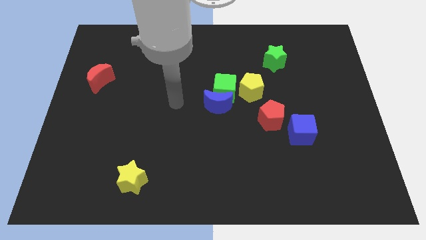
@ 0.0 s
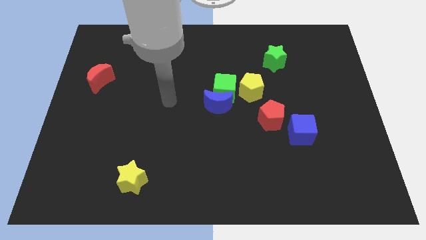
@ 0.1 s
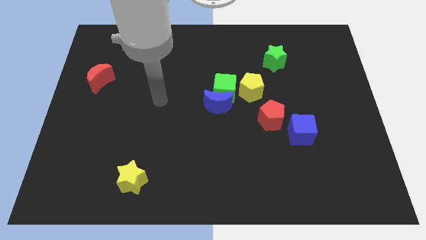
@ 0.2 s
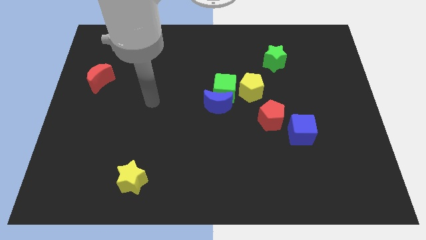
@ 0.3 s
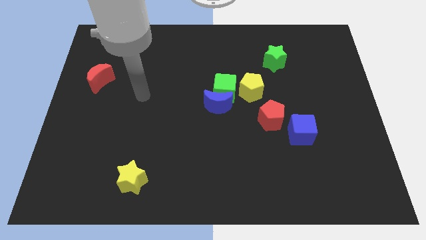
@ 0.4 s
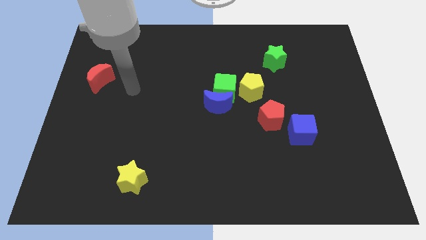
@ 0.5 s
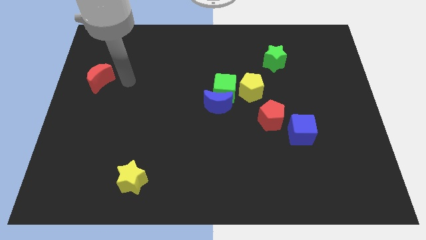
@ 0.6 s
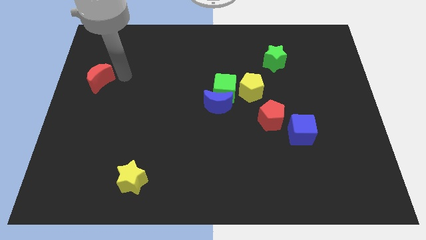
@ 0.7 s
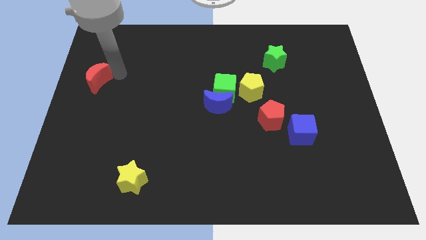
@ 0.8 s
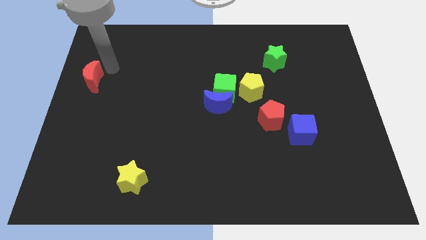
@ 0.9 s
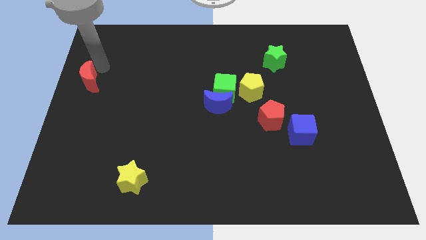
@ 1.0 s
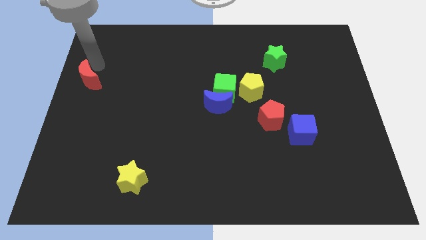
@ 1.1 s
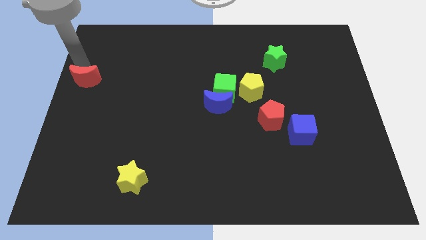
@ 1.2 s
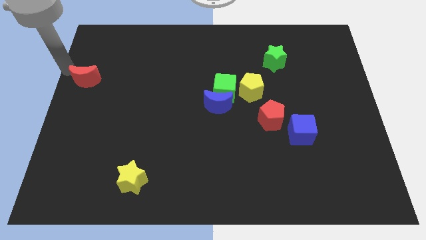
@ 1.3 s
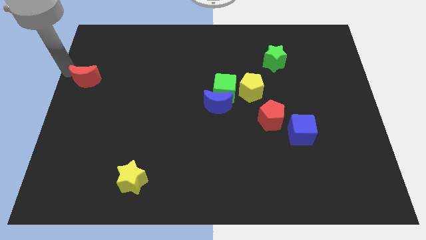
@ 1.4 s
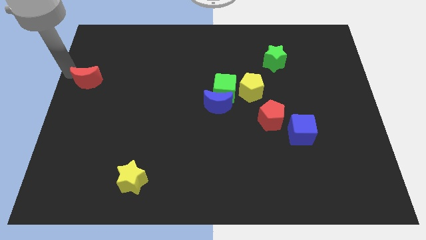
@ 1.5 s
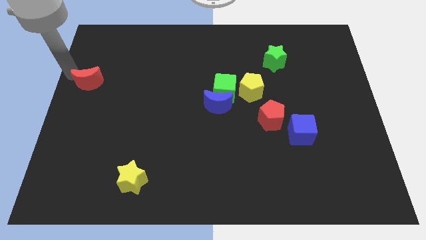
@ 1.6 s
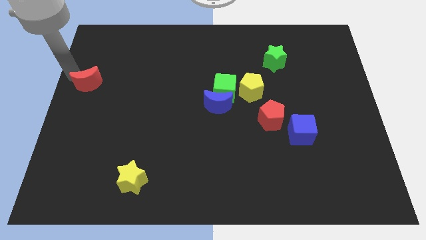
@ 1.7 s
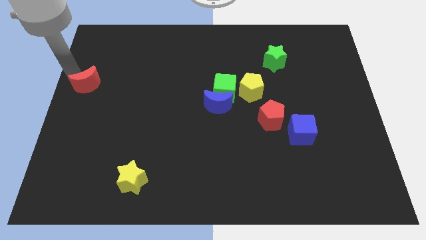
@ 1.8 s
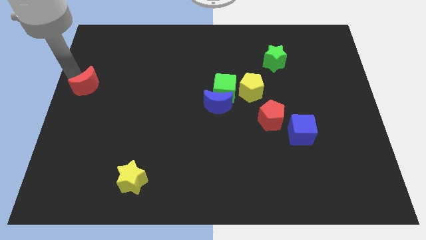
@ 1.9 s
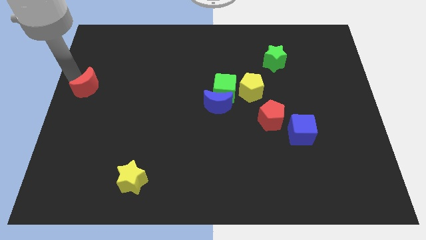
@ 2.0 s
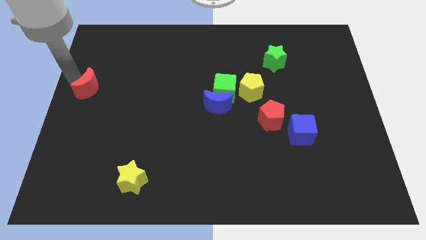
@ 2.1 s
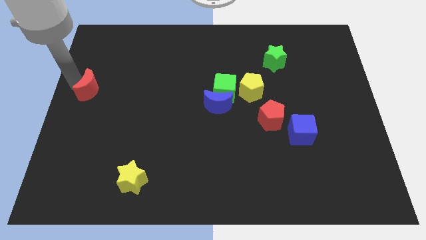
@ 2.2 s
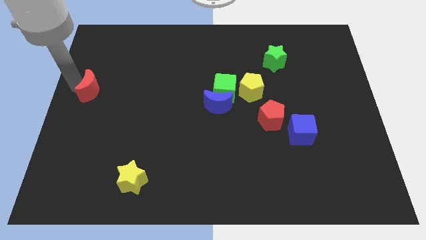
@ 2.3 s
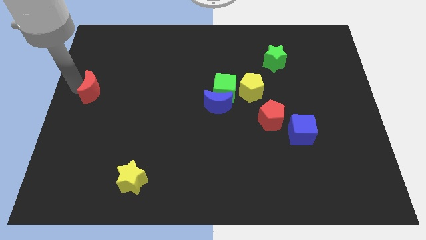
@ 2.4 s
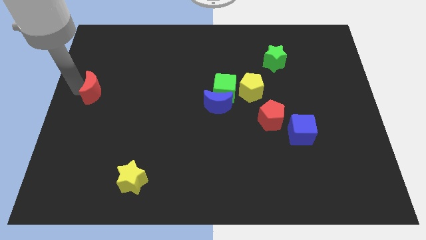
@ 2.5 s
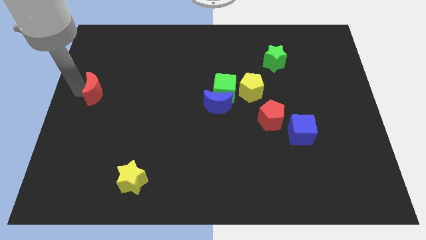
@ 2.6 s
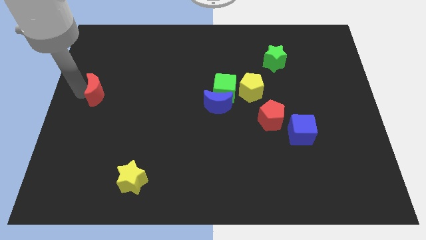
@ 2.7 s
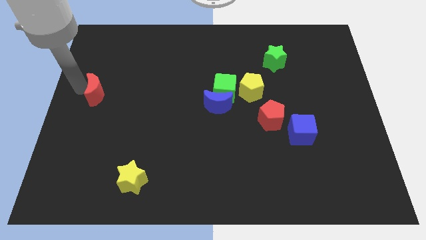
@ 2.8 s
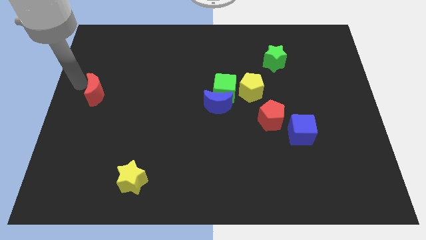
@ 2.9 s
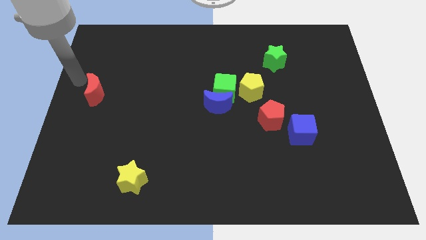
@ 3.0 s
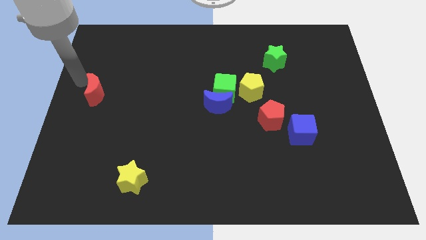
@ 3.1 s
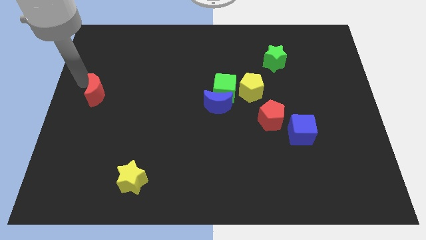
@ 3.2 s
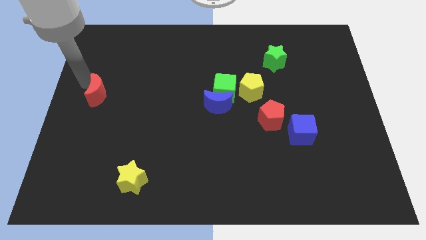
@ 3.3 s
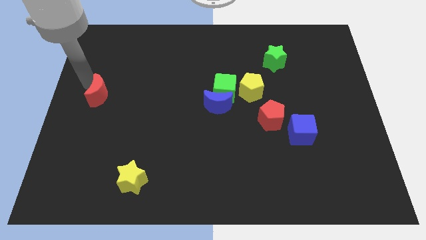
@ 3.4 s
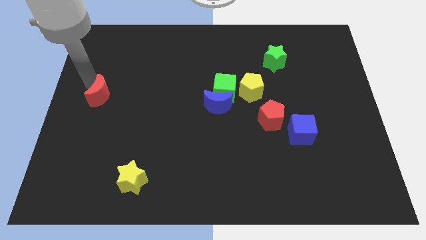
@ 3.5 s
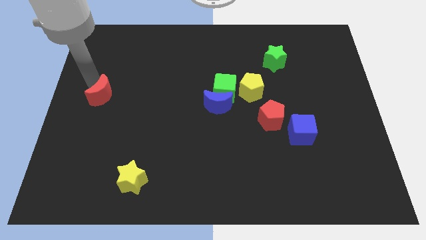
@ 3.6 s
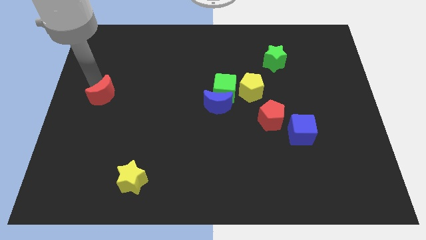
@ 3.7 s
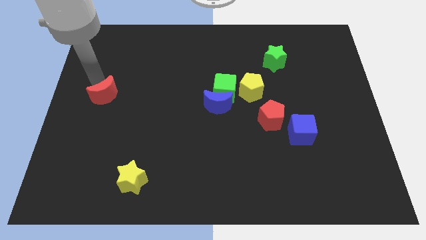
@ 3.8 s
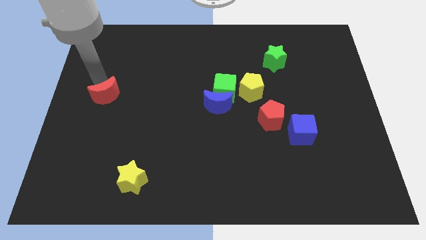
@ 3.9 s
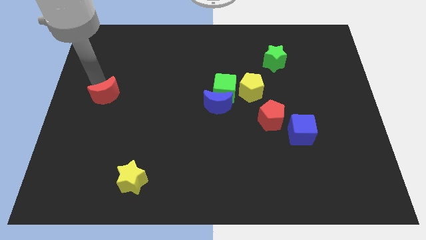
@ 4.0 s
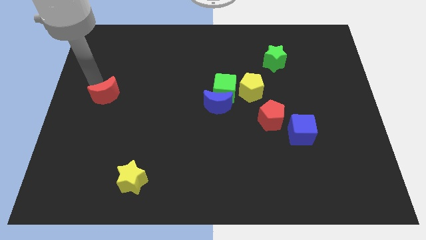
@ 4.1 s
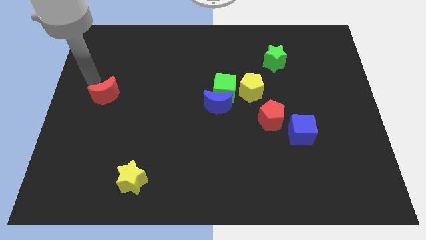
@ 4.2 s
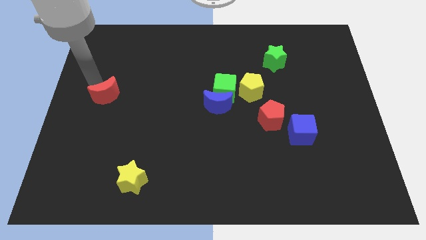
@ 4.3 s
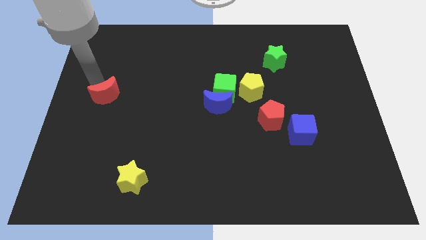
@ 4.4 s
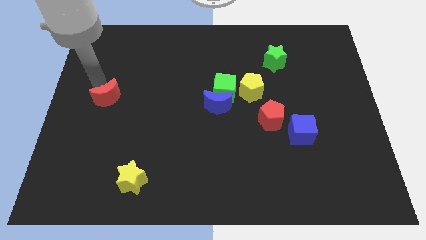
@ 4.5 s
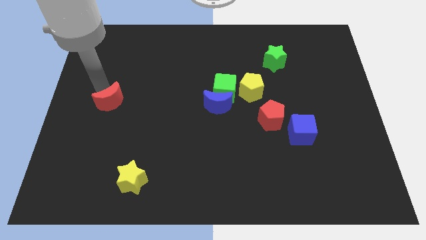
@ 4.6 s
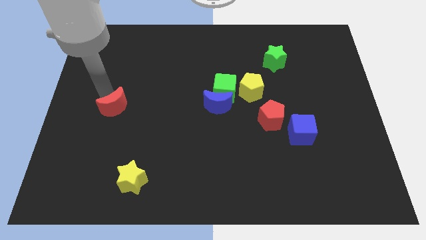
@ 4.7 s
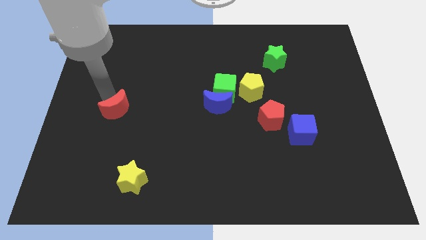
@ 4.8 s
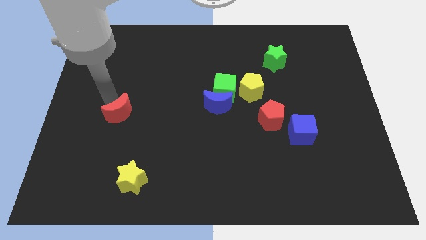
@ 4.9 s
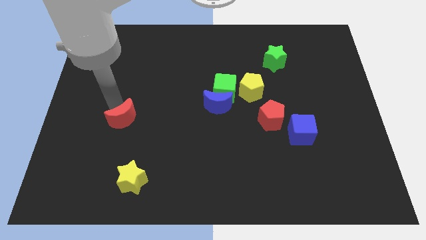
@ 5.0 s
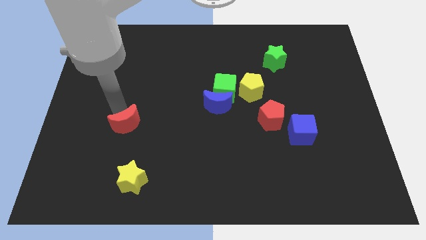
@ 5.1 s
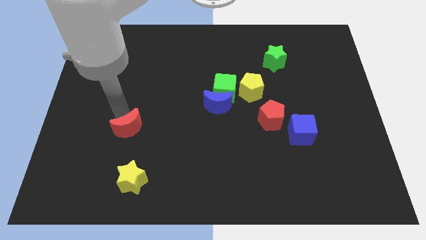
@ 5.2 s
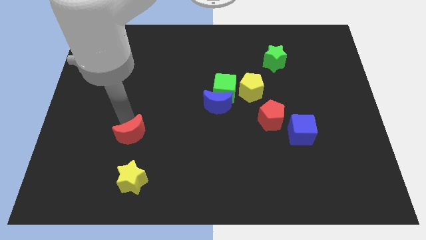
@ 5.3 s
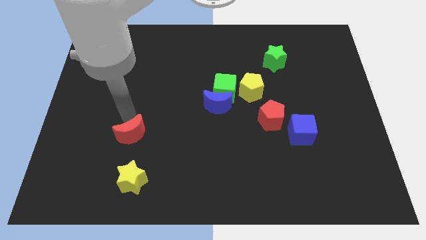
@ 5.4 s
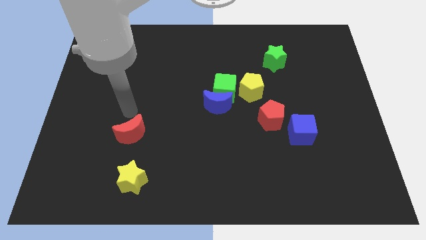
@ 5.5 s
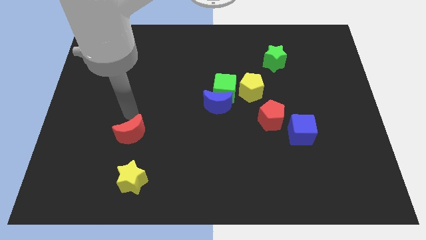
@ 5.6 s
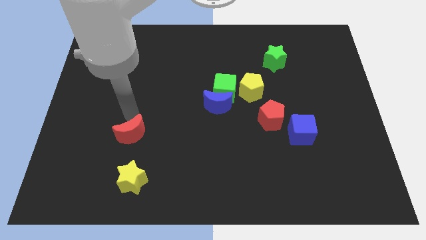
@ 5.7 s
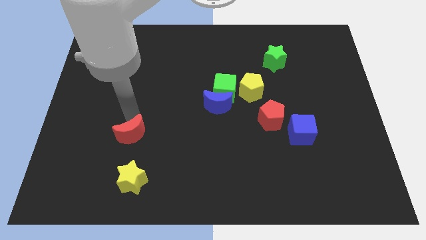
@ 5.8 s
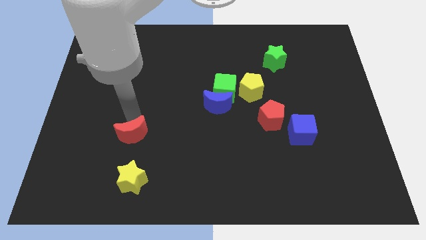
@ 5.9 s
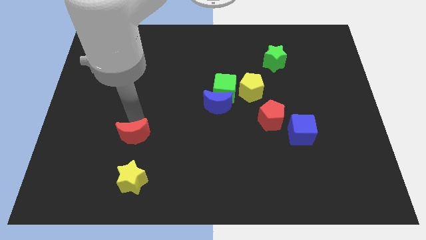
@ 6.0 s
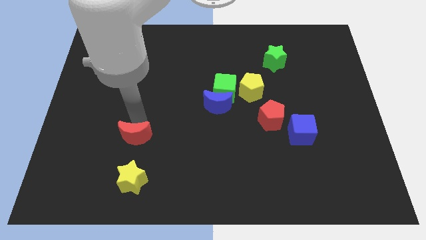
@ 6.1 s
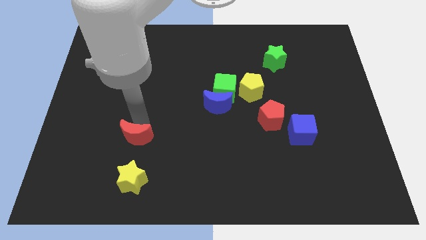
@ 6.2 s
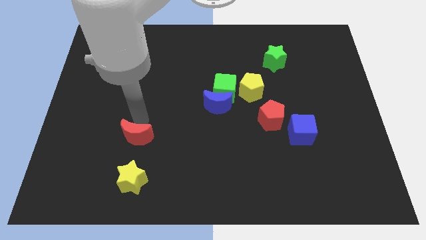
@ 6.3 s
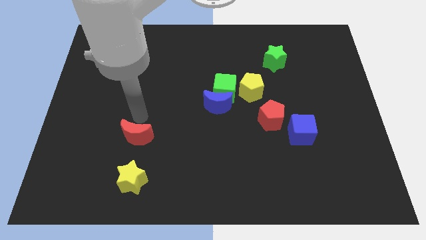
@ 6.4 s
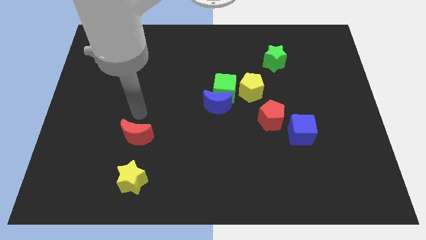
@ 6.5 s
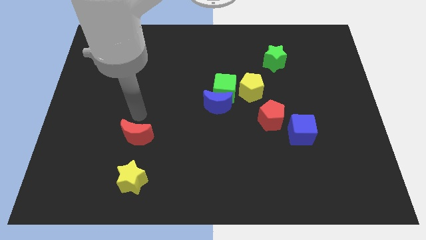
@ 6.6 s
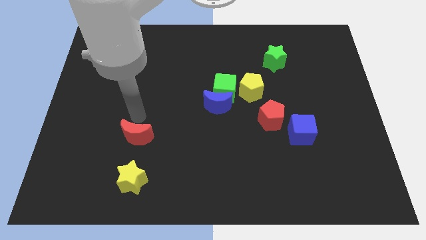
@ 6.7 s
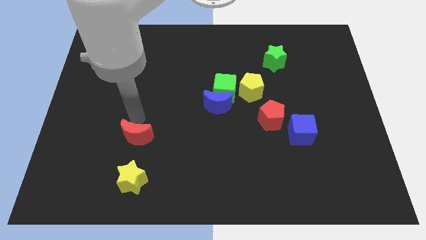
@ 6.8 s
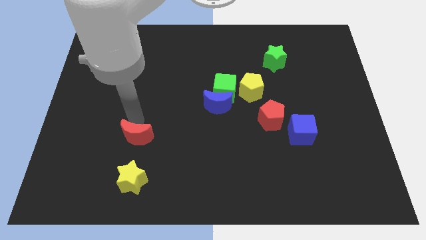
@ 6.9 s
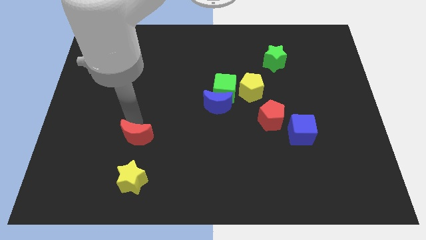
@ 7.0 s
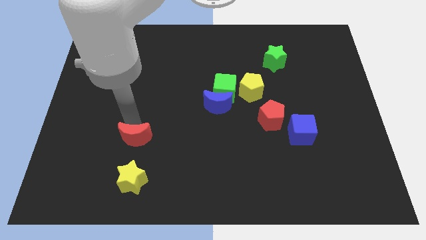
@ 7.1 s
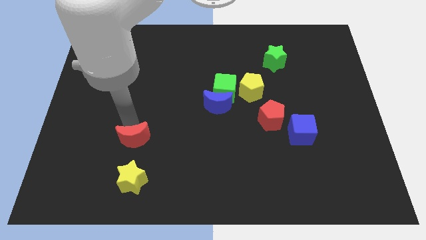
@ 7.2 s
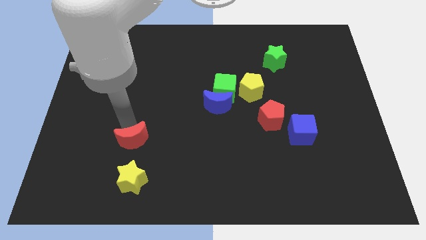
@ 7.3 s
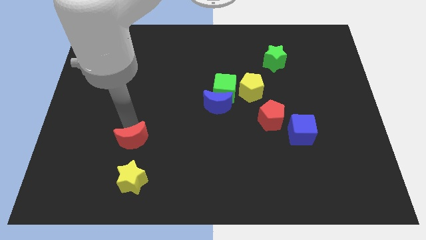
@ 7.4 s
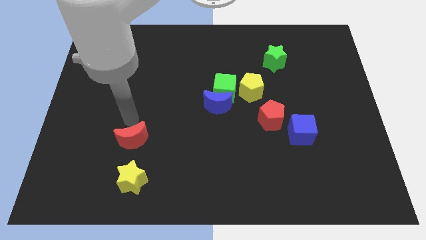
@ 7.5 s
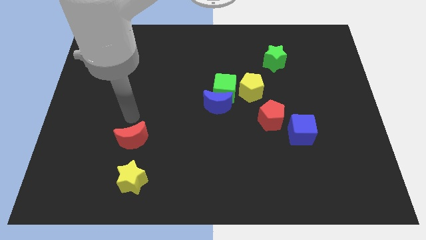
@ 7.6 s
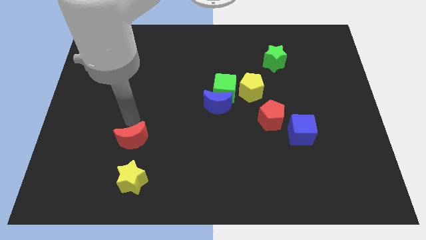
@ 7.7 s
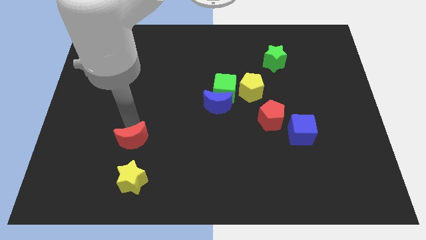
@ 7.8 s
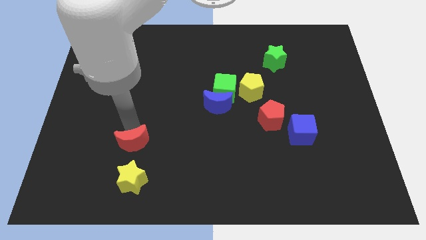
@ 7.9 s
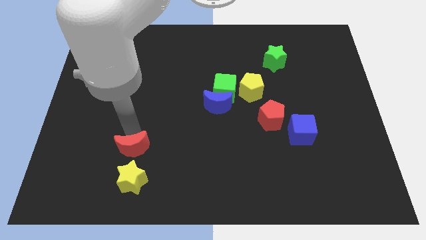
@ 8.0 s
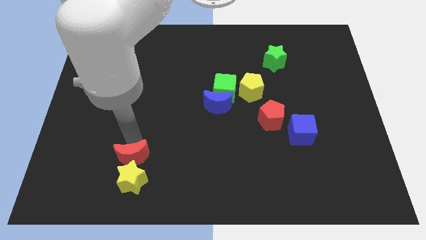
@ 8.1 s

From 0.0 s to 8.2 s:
slide the red moon close to the yellow star
